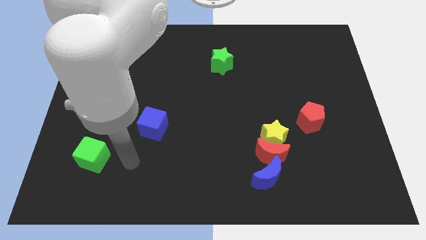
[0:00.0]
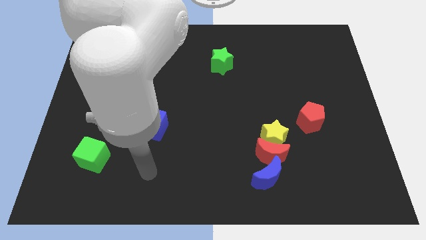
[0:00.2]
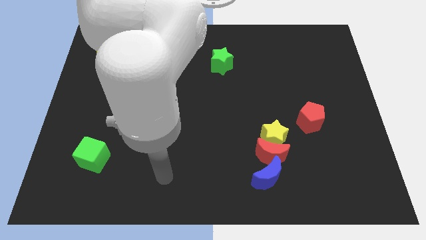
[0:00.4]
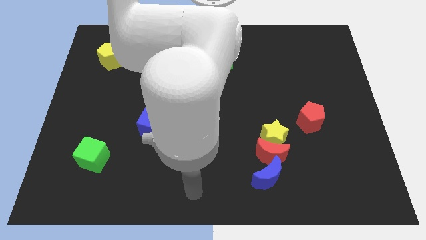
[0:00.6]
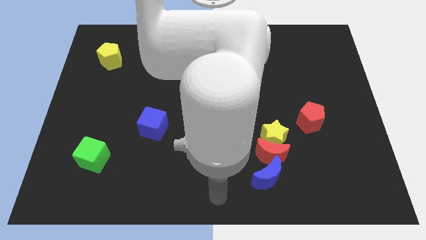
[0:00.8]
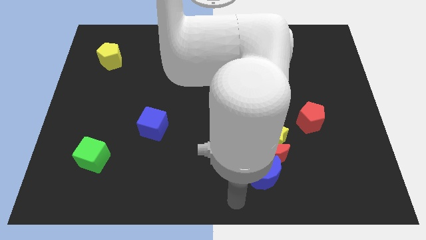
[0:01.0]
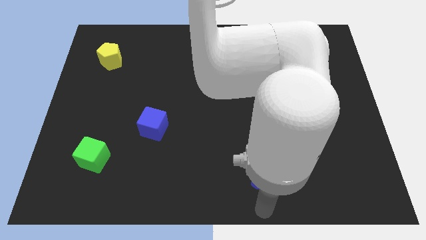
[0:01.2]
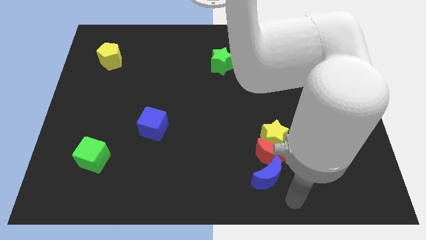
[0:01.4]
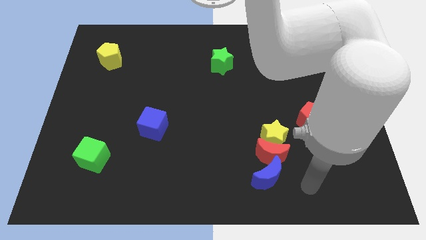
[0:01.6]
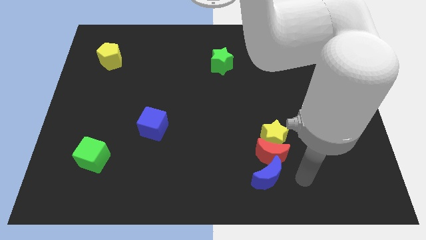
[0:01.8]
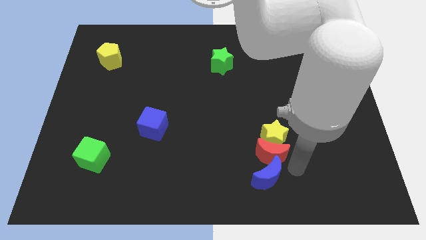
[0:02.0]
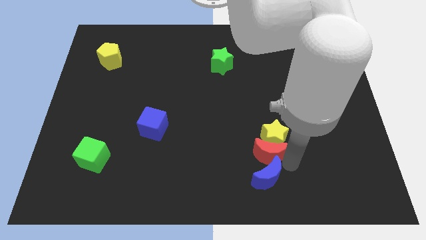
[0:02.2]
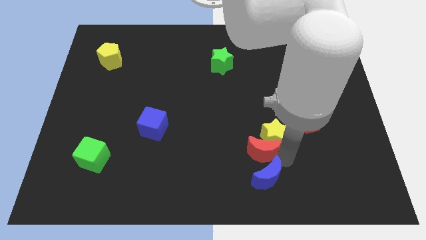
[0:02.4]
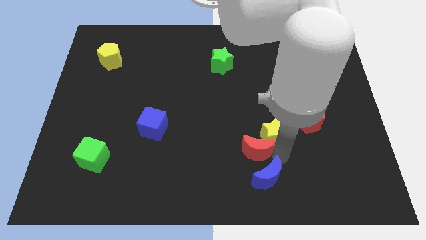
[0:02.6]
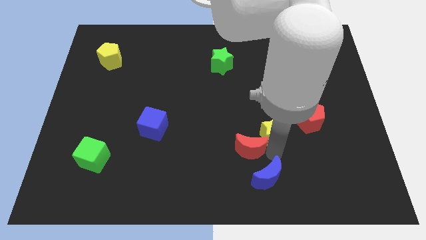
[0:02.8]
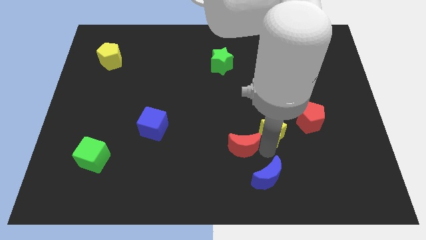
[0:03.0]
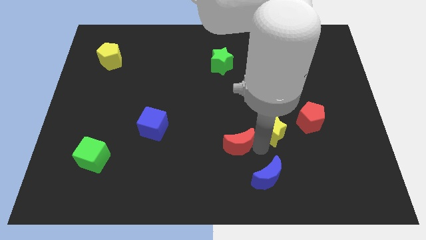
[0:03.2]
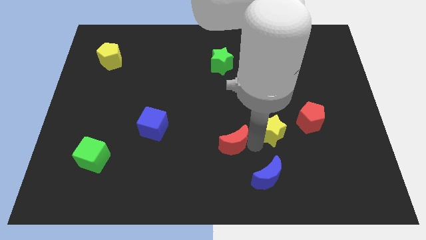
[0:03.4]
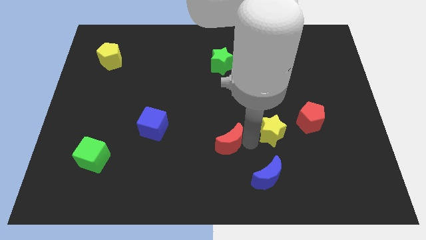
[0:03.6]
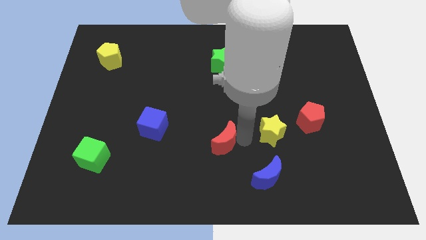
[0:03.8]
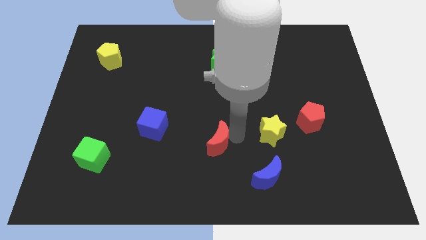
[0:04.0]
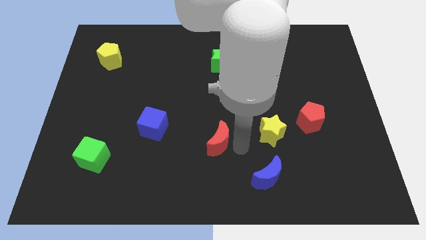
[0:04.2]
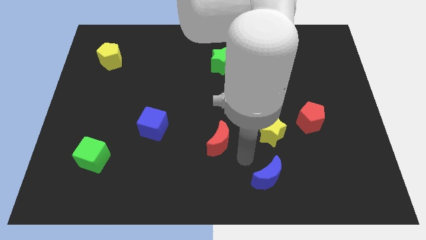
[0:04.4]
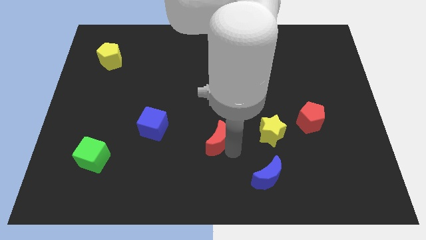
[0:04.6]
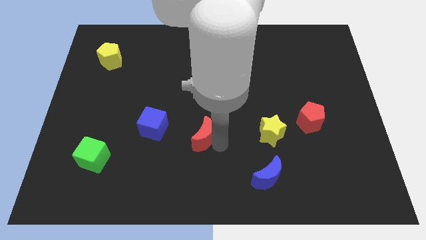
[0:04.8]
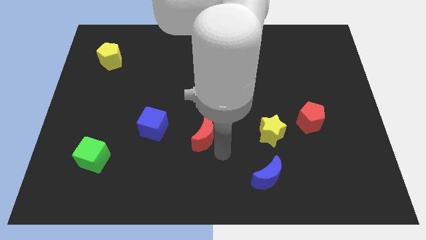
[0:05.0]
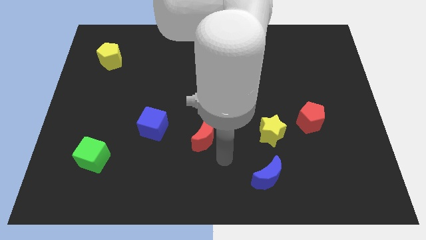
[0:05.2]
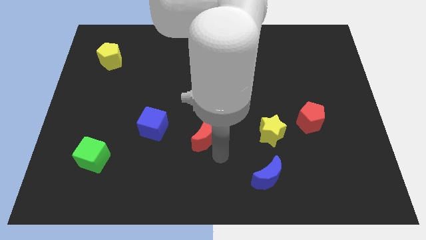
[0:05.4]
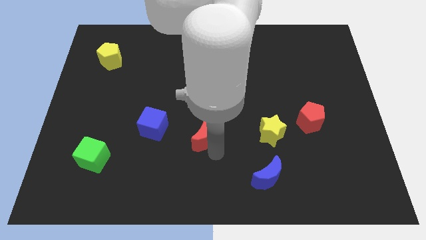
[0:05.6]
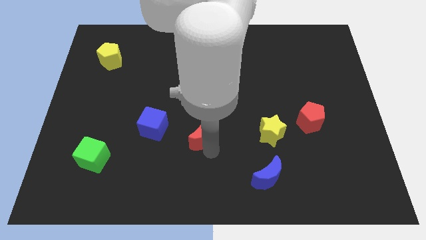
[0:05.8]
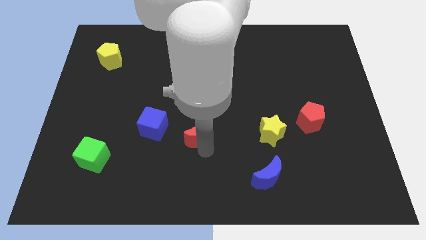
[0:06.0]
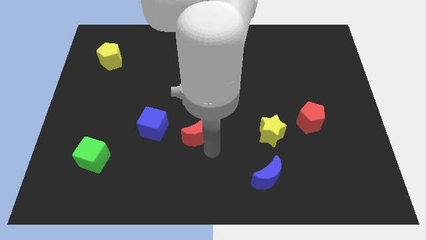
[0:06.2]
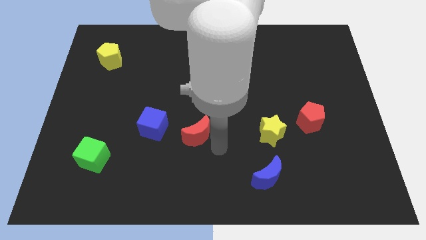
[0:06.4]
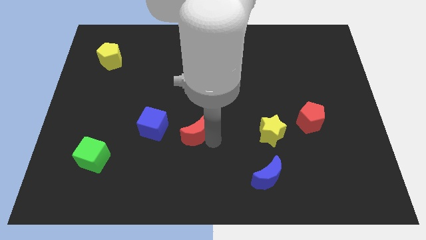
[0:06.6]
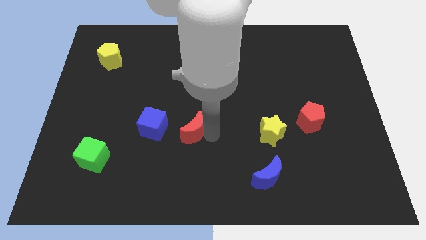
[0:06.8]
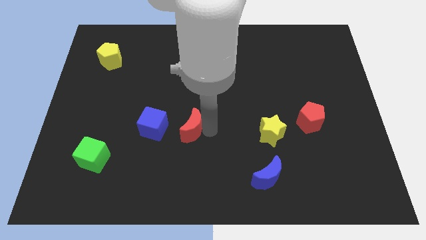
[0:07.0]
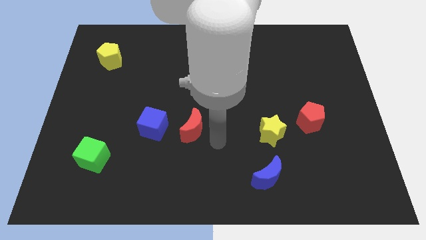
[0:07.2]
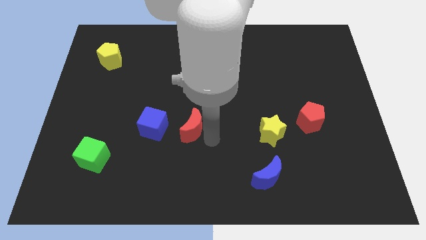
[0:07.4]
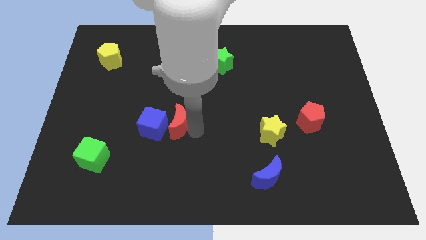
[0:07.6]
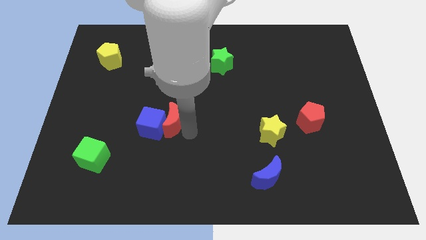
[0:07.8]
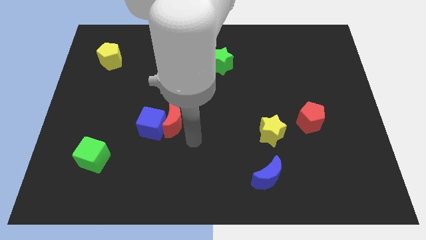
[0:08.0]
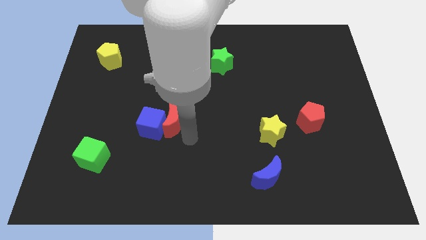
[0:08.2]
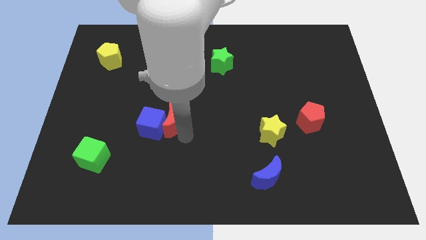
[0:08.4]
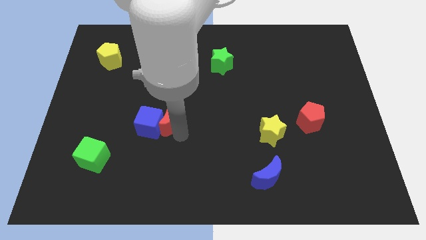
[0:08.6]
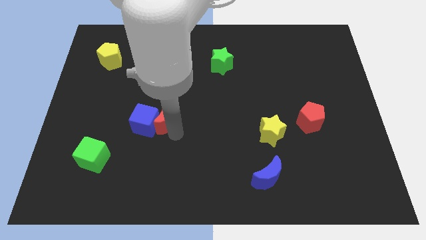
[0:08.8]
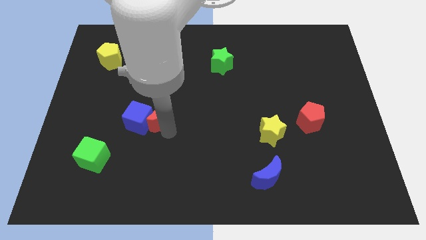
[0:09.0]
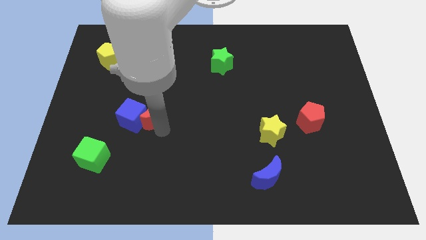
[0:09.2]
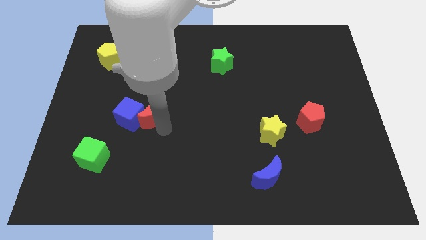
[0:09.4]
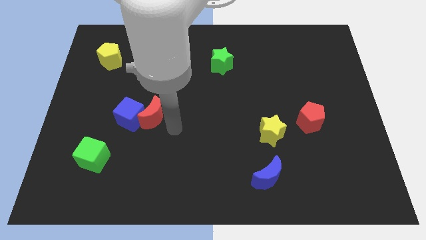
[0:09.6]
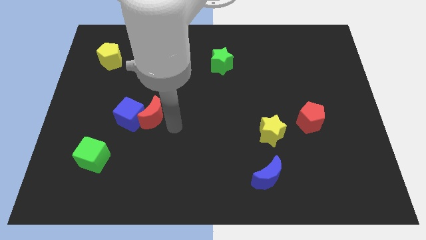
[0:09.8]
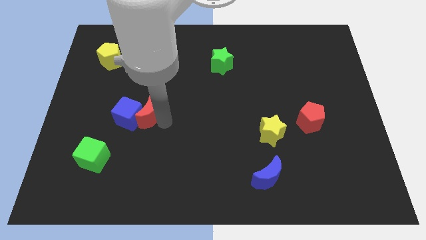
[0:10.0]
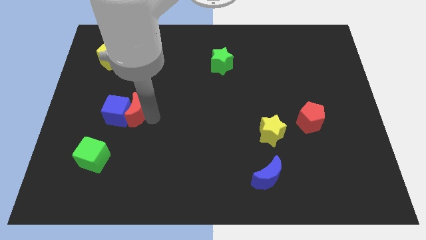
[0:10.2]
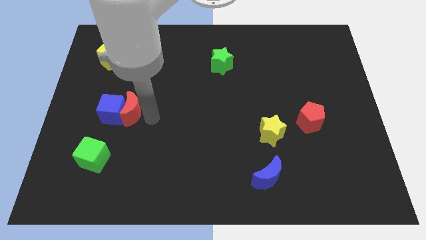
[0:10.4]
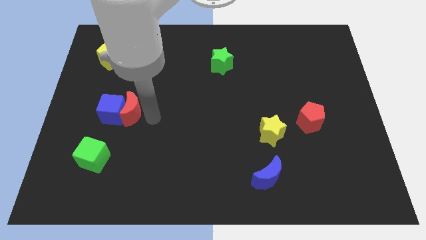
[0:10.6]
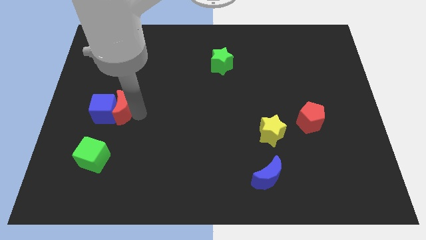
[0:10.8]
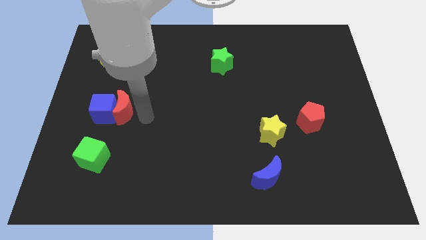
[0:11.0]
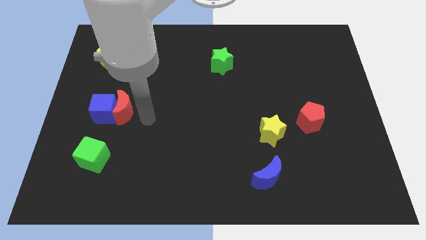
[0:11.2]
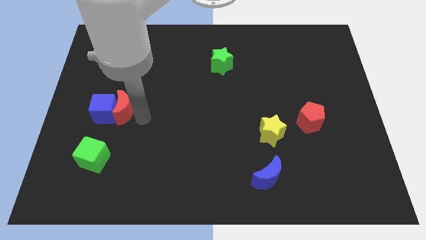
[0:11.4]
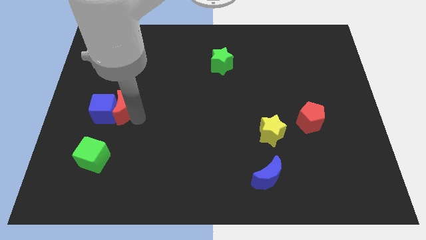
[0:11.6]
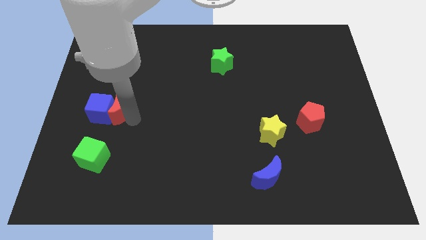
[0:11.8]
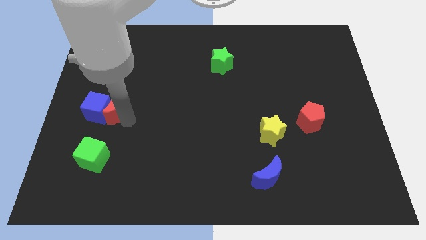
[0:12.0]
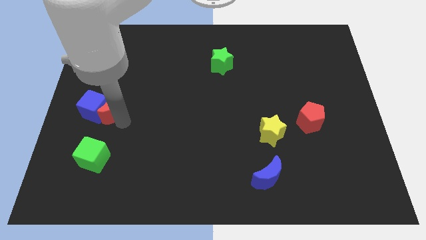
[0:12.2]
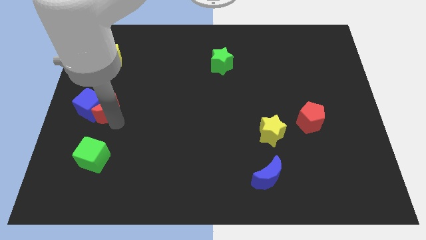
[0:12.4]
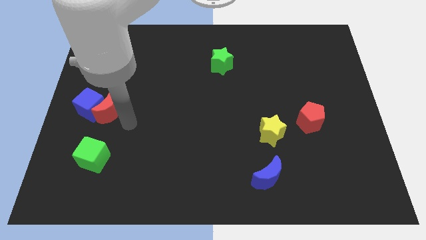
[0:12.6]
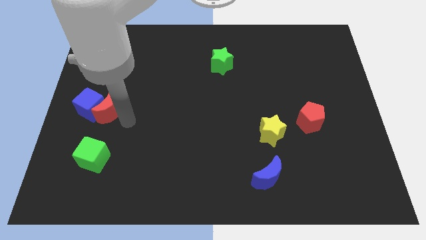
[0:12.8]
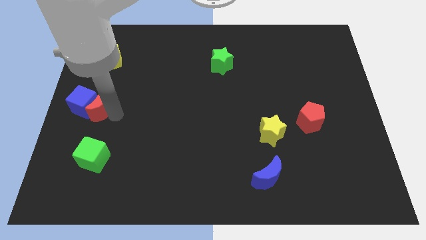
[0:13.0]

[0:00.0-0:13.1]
slide the red moon to the left side of the board
